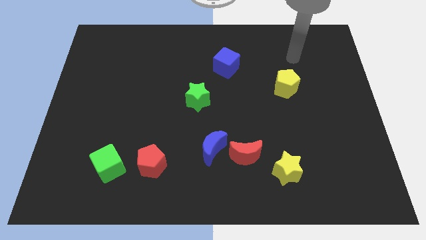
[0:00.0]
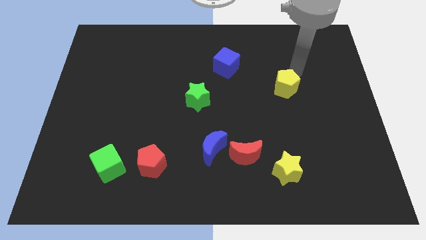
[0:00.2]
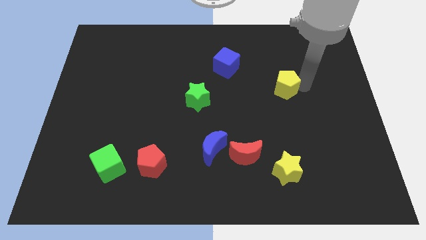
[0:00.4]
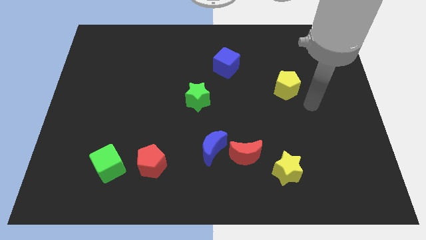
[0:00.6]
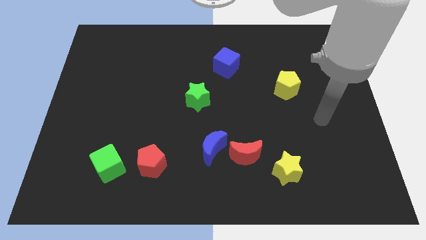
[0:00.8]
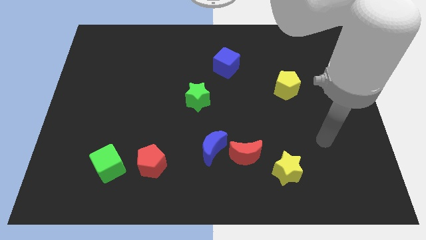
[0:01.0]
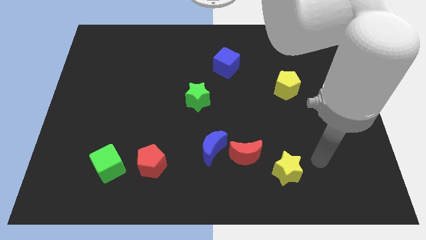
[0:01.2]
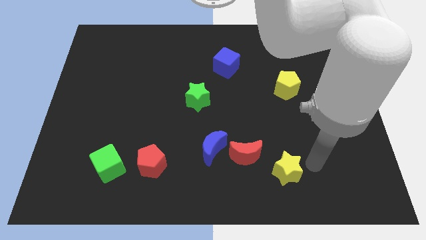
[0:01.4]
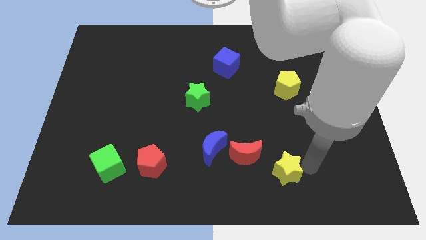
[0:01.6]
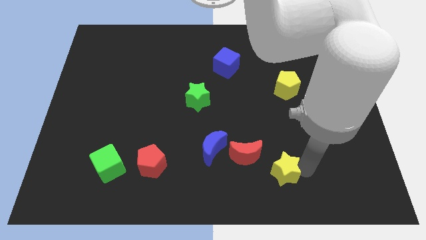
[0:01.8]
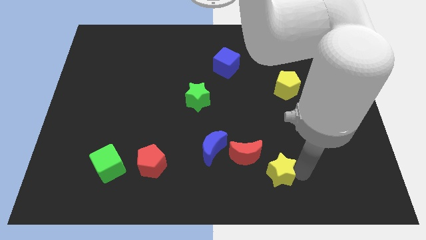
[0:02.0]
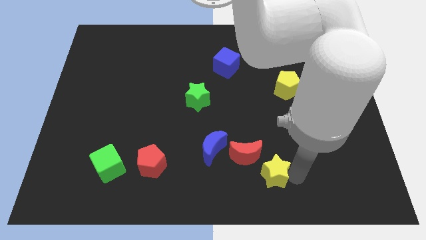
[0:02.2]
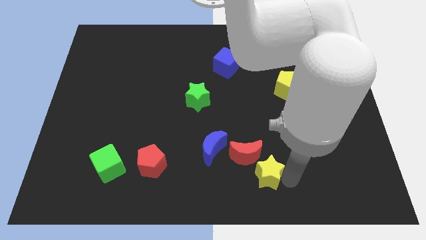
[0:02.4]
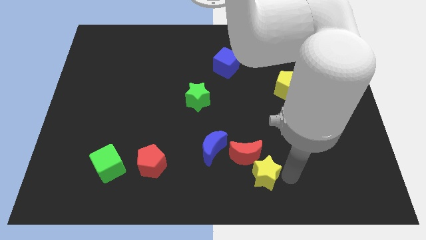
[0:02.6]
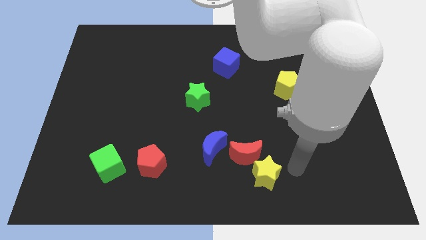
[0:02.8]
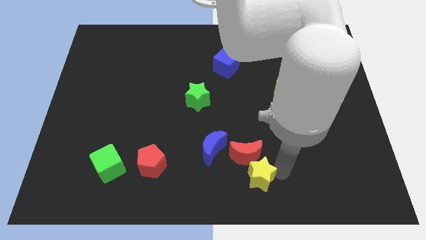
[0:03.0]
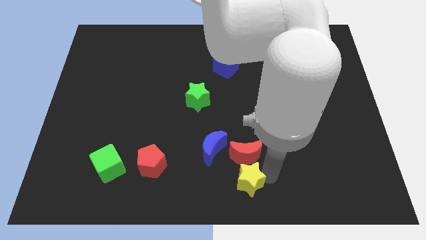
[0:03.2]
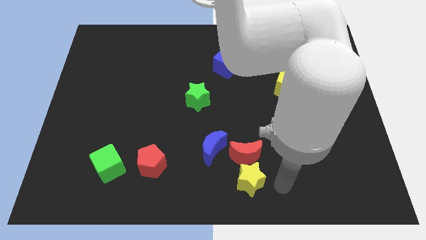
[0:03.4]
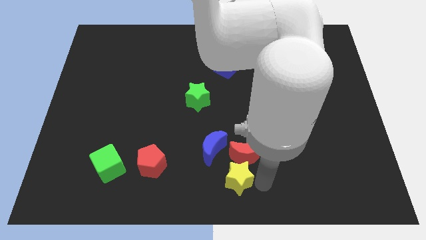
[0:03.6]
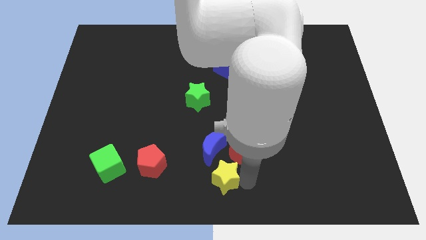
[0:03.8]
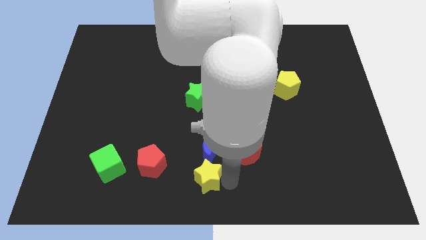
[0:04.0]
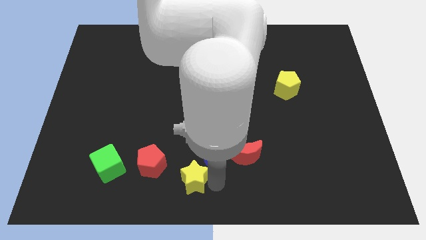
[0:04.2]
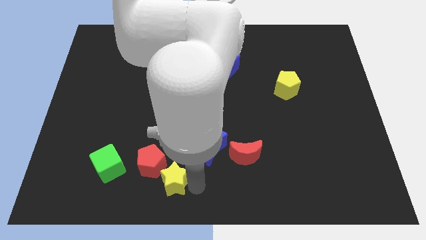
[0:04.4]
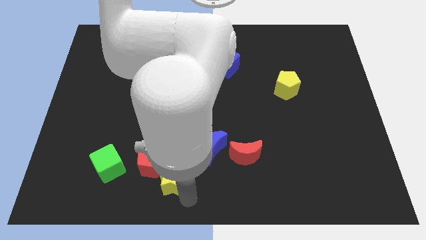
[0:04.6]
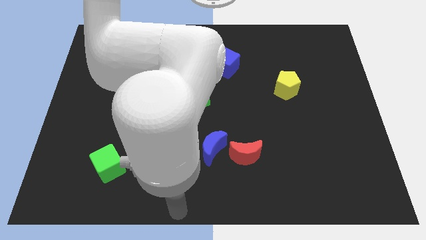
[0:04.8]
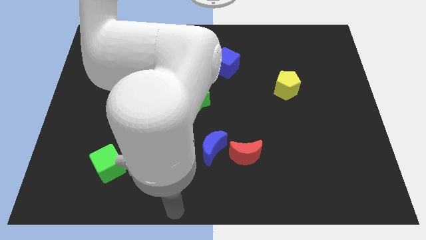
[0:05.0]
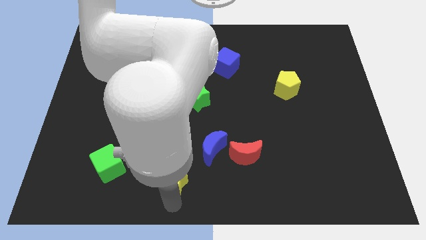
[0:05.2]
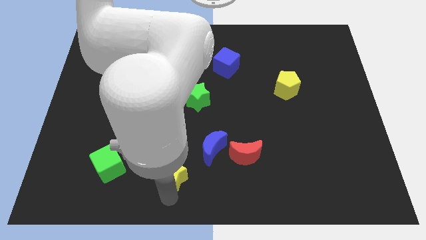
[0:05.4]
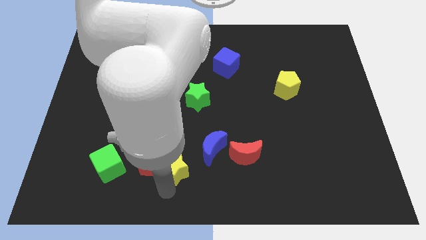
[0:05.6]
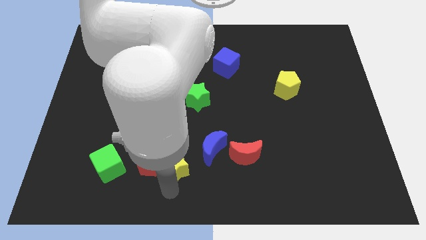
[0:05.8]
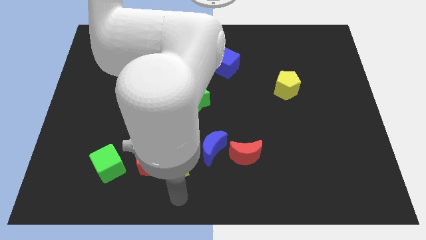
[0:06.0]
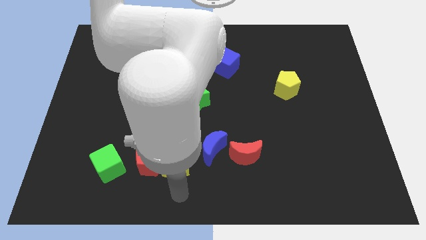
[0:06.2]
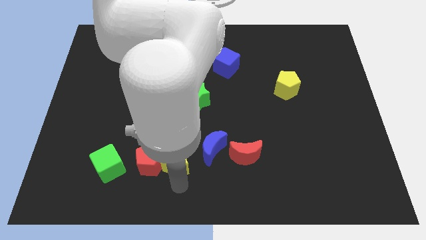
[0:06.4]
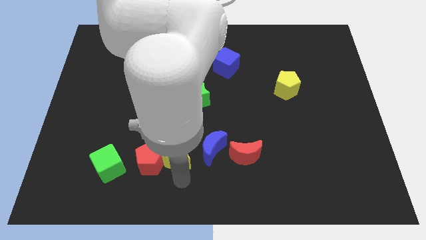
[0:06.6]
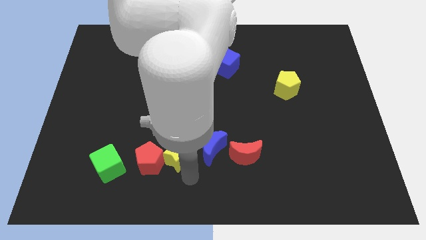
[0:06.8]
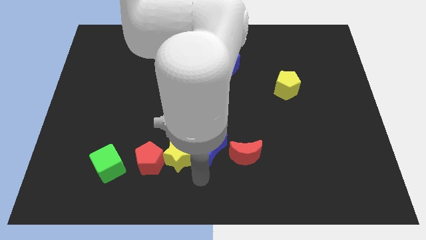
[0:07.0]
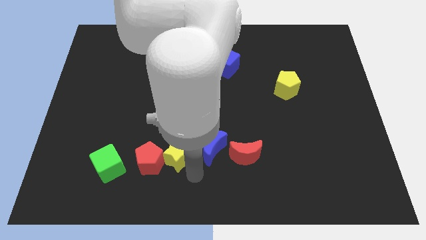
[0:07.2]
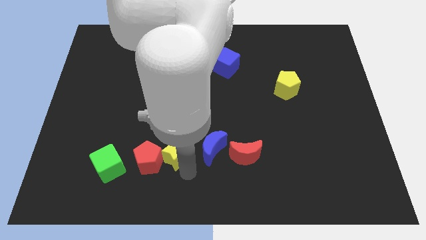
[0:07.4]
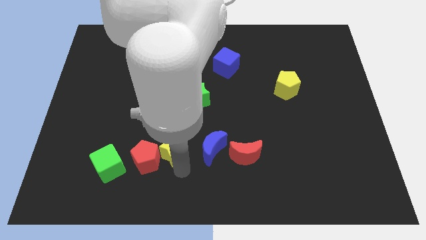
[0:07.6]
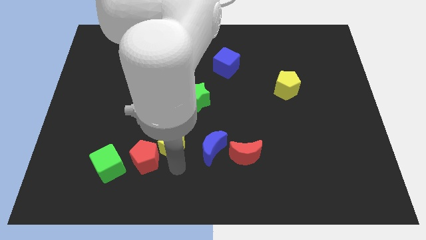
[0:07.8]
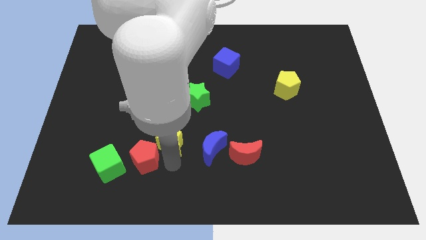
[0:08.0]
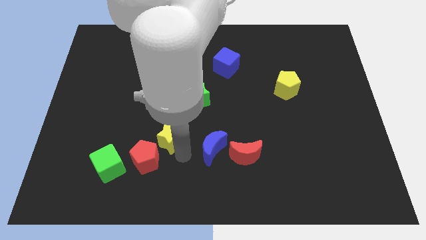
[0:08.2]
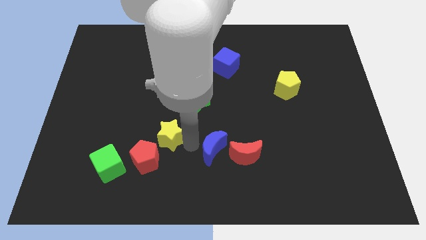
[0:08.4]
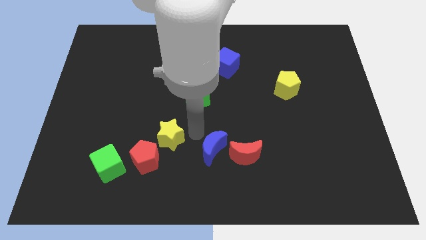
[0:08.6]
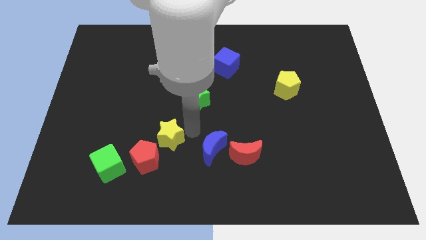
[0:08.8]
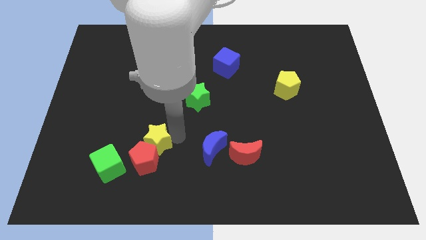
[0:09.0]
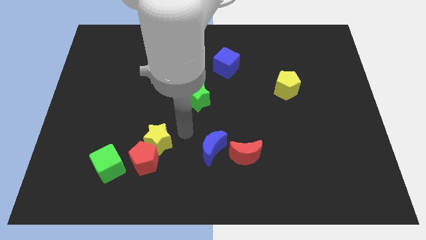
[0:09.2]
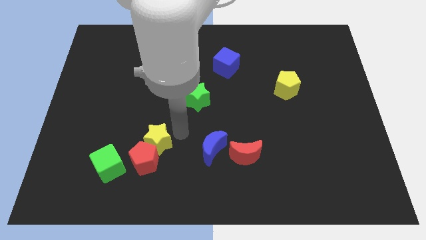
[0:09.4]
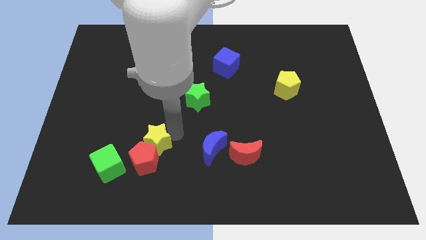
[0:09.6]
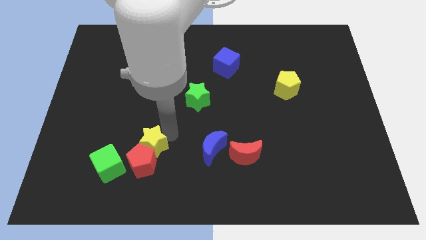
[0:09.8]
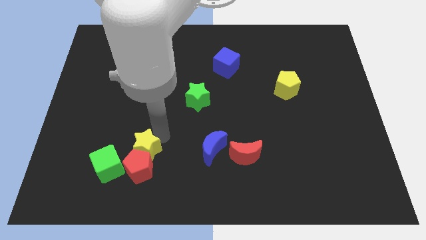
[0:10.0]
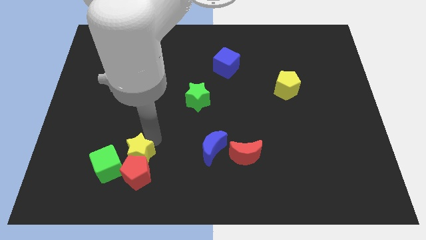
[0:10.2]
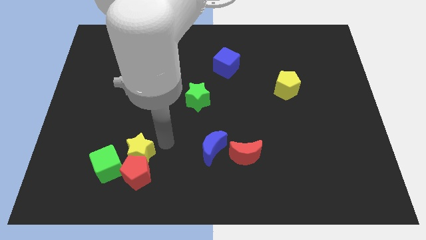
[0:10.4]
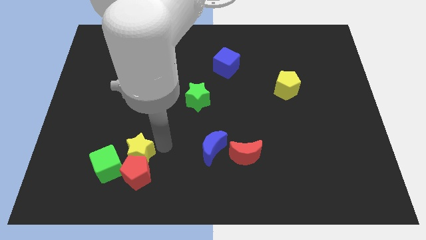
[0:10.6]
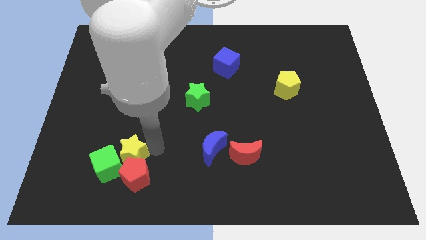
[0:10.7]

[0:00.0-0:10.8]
slide the yellow star towards the green cube
